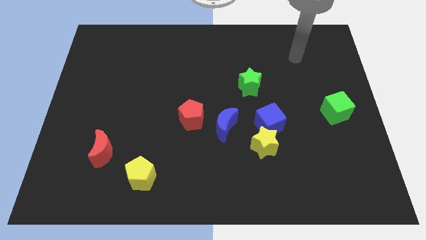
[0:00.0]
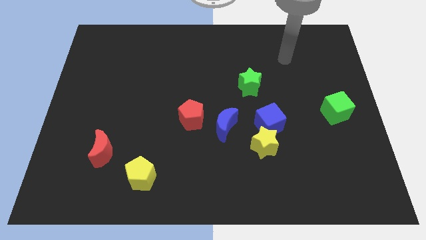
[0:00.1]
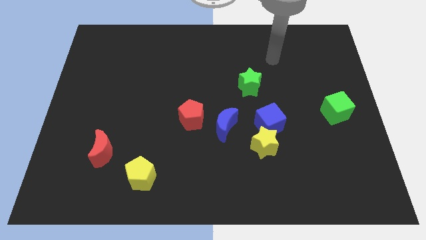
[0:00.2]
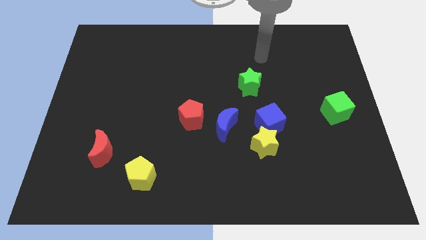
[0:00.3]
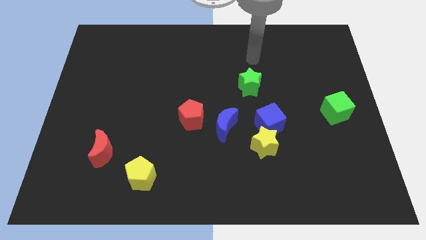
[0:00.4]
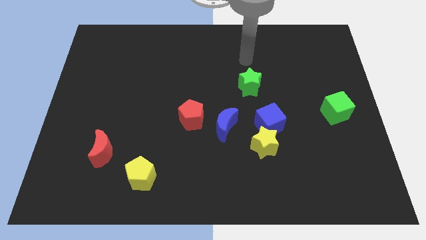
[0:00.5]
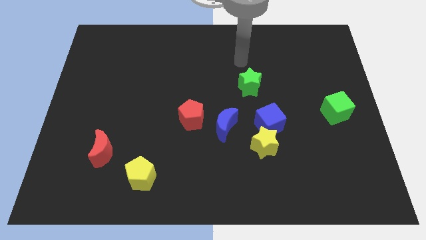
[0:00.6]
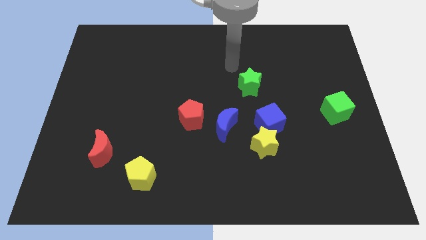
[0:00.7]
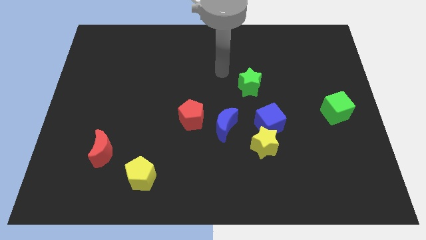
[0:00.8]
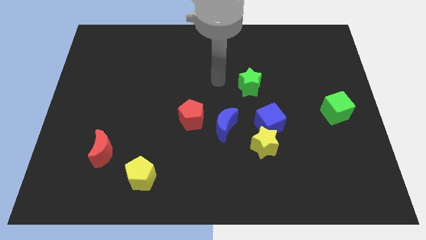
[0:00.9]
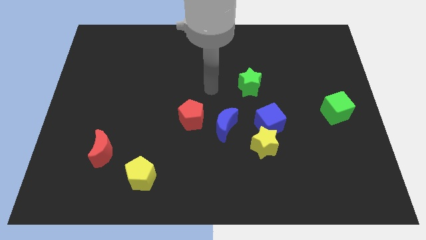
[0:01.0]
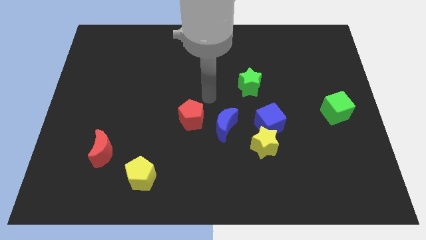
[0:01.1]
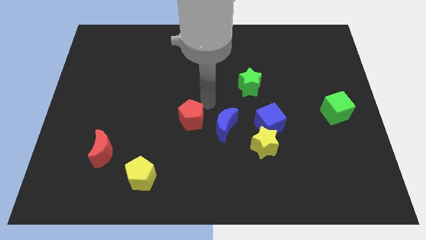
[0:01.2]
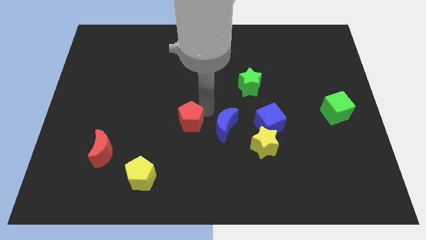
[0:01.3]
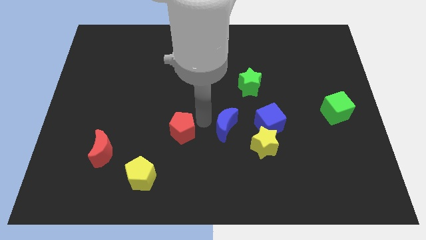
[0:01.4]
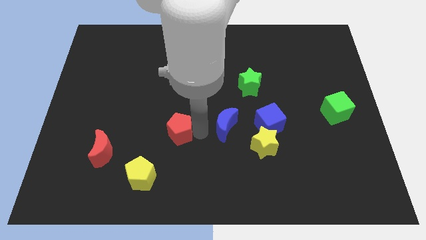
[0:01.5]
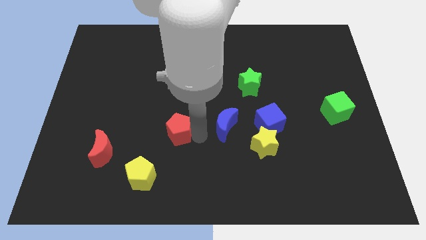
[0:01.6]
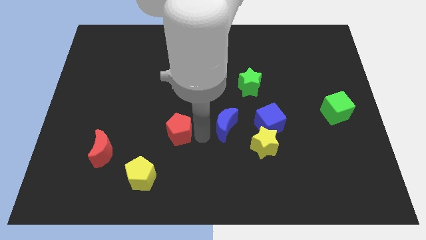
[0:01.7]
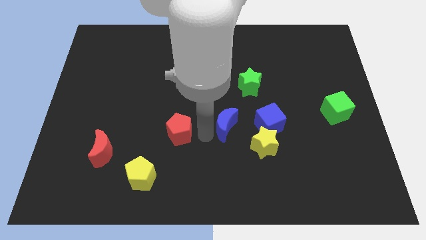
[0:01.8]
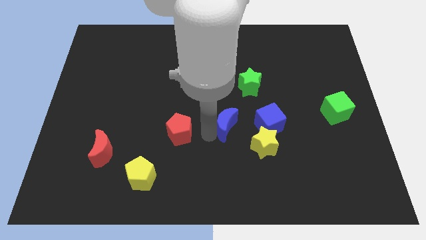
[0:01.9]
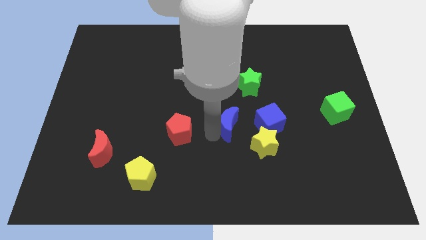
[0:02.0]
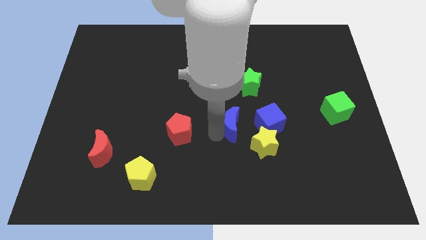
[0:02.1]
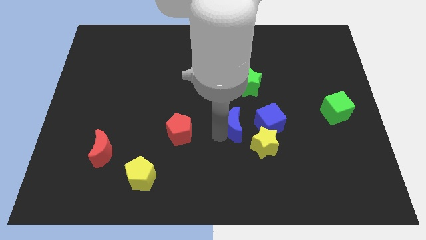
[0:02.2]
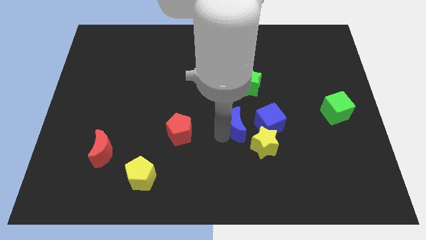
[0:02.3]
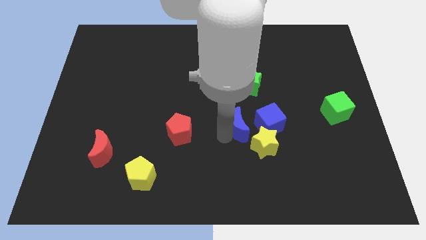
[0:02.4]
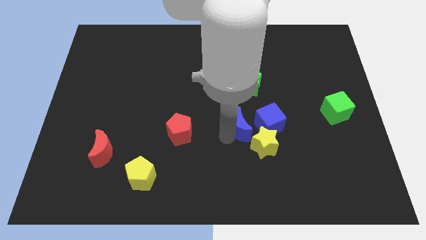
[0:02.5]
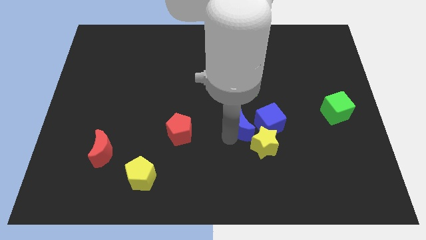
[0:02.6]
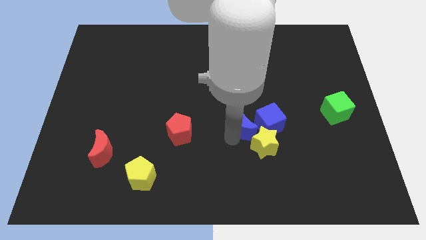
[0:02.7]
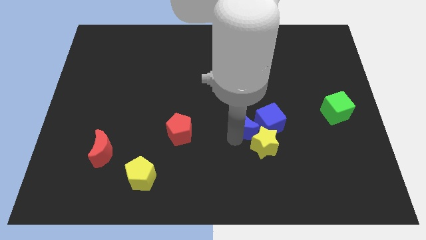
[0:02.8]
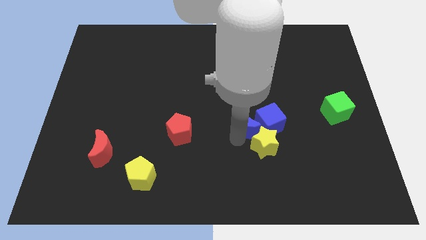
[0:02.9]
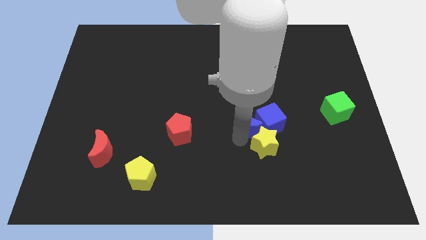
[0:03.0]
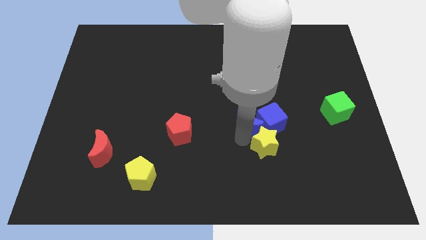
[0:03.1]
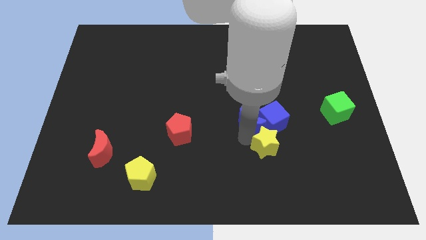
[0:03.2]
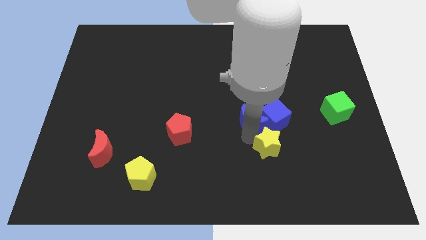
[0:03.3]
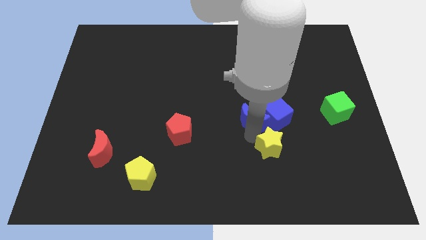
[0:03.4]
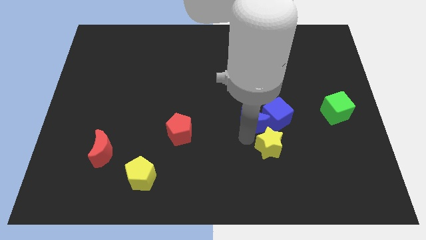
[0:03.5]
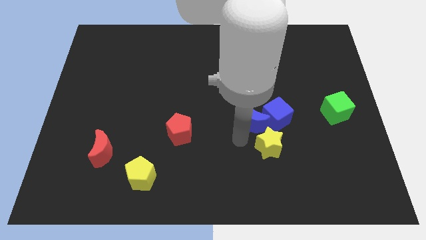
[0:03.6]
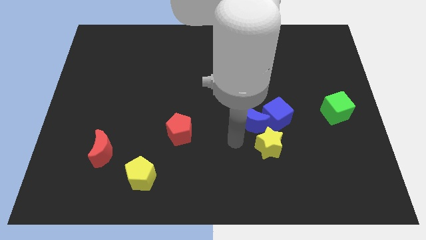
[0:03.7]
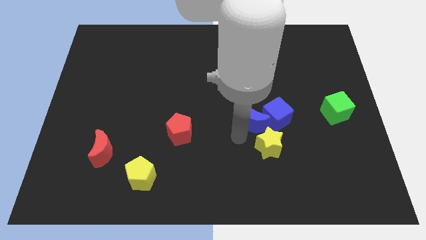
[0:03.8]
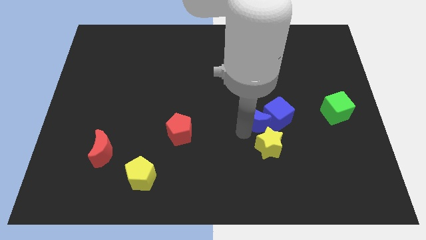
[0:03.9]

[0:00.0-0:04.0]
slide the blue moon a bit right

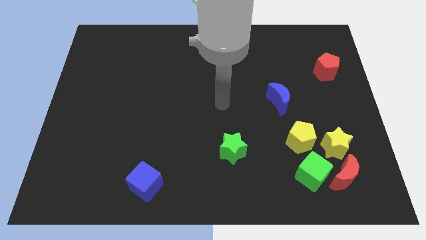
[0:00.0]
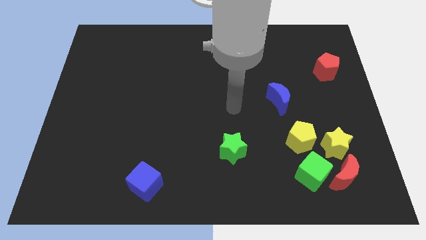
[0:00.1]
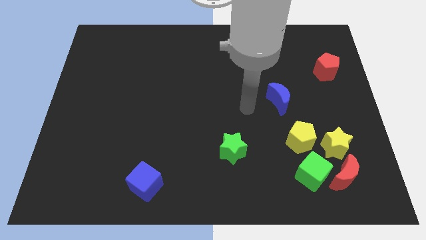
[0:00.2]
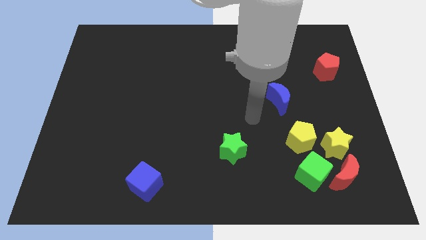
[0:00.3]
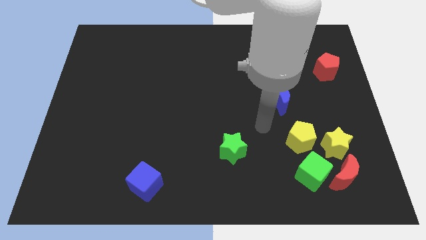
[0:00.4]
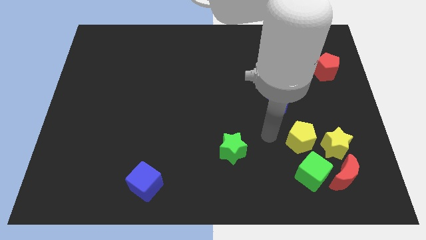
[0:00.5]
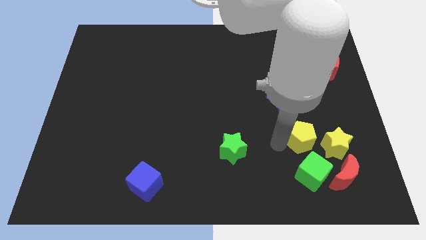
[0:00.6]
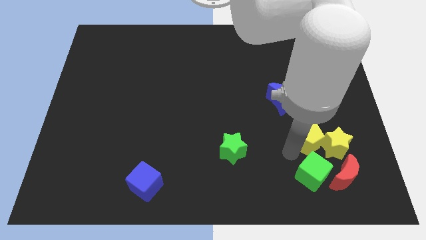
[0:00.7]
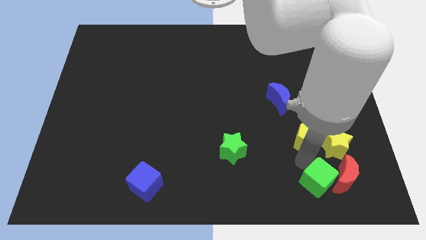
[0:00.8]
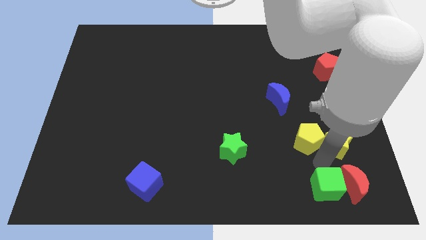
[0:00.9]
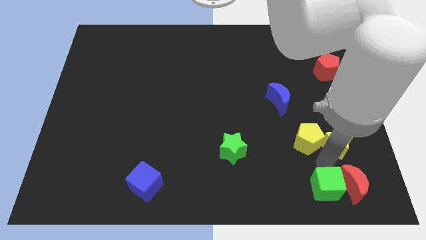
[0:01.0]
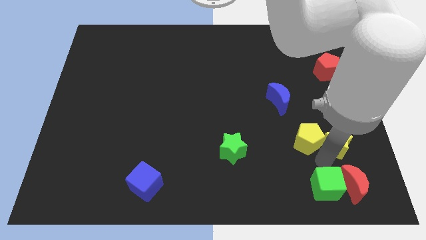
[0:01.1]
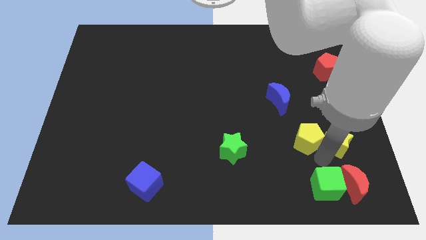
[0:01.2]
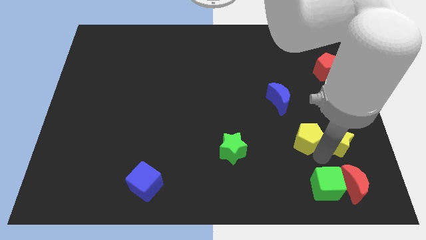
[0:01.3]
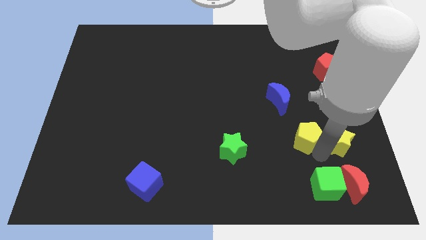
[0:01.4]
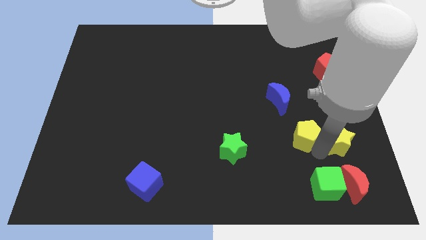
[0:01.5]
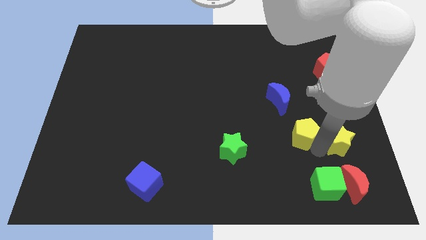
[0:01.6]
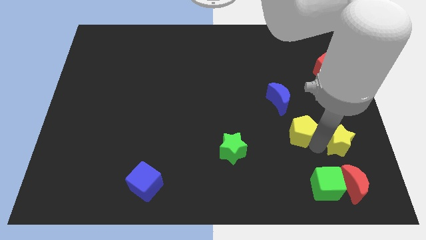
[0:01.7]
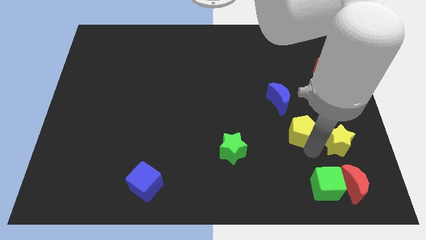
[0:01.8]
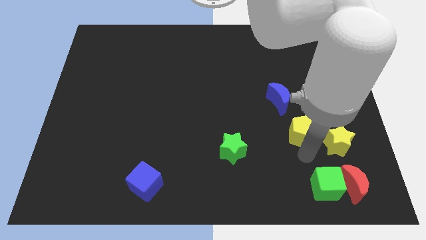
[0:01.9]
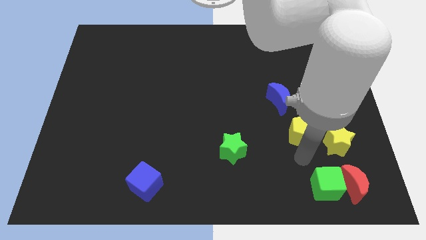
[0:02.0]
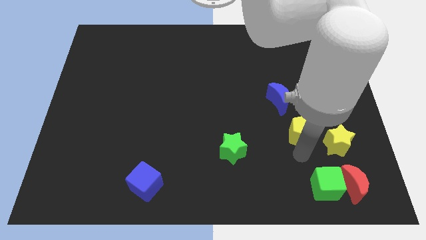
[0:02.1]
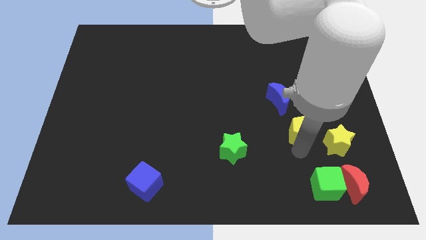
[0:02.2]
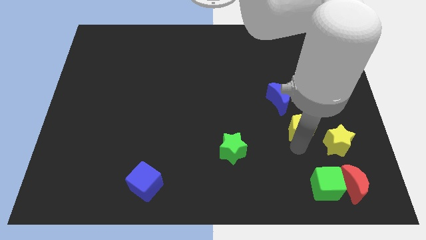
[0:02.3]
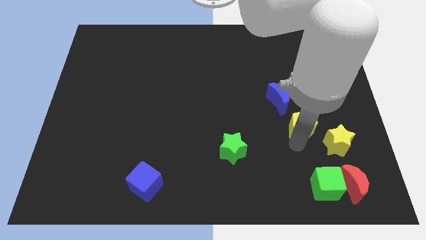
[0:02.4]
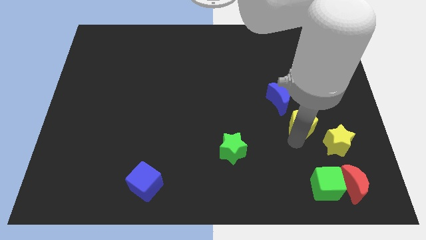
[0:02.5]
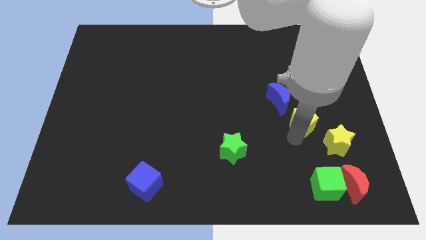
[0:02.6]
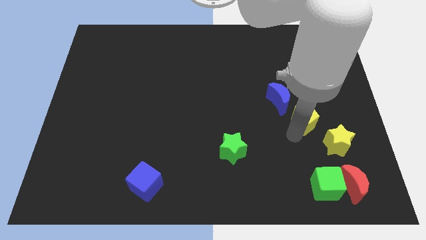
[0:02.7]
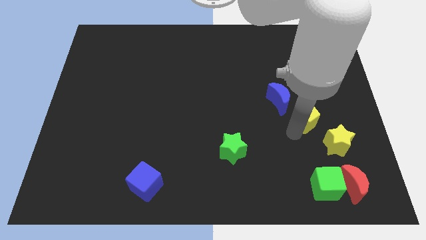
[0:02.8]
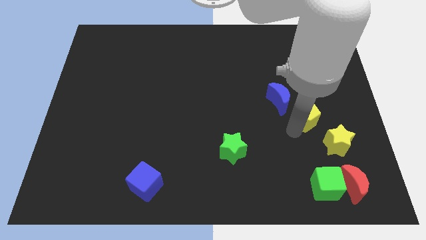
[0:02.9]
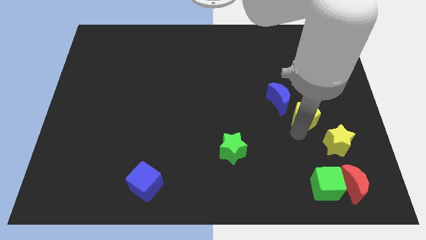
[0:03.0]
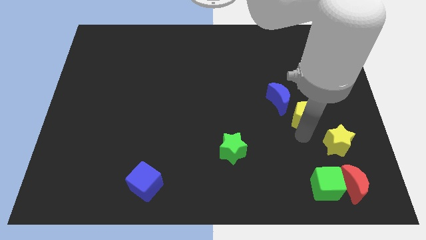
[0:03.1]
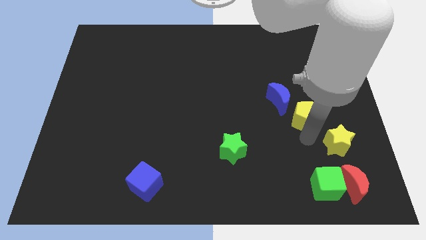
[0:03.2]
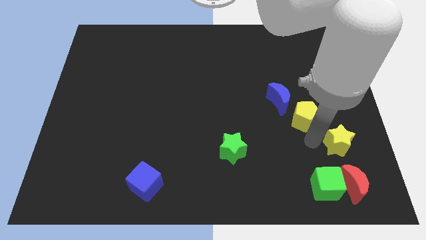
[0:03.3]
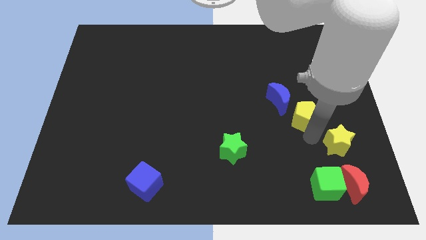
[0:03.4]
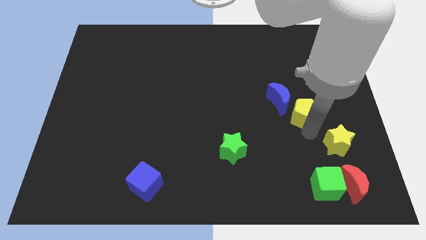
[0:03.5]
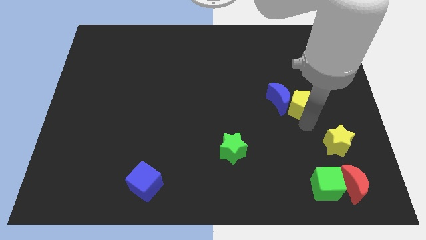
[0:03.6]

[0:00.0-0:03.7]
move the yellow pentagon upwards a little

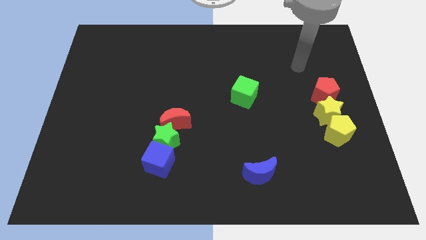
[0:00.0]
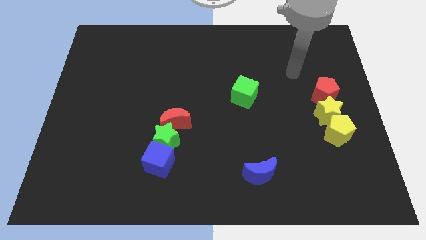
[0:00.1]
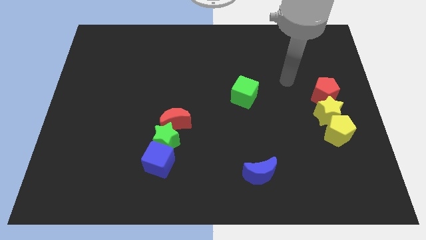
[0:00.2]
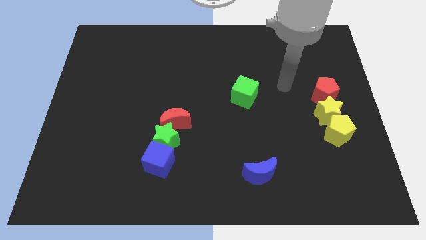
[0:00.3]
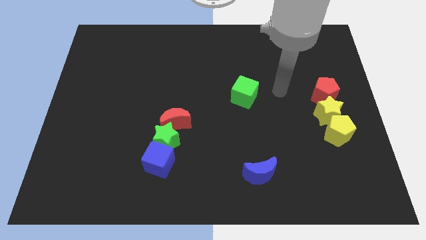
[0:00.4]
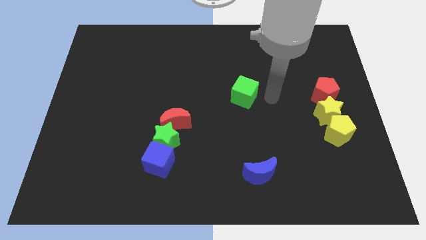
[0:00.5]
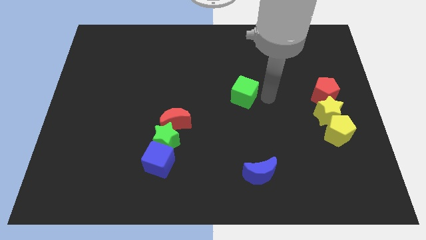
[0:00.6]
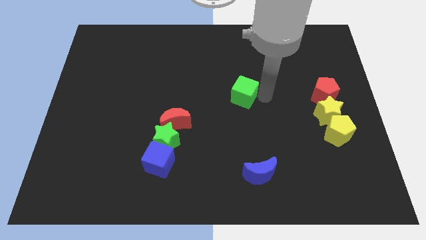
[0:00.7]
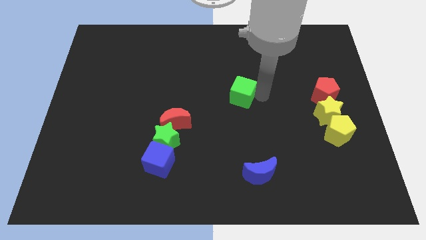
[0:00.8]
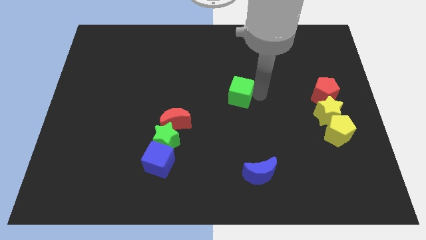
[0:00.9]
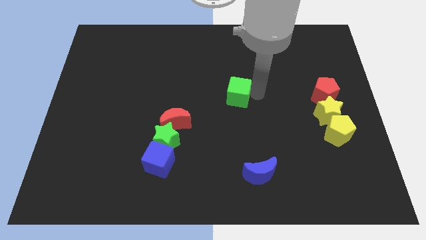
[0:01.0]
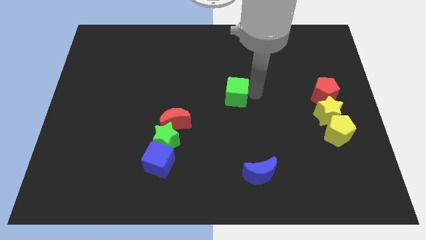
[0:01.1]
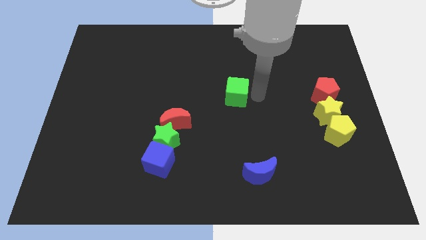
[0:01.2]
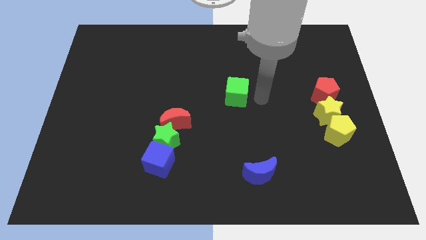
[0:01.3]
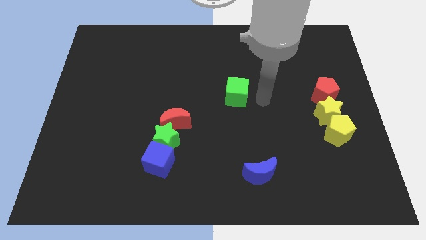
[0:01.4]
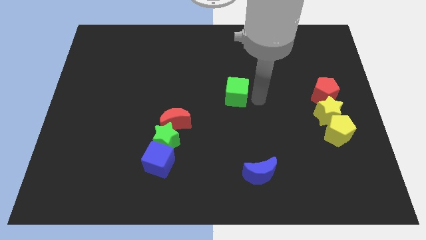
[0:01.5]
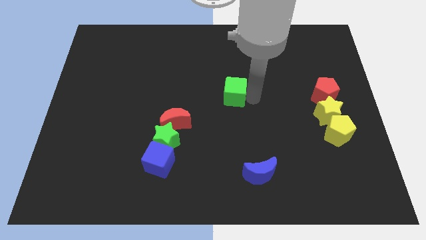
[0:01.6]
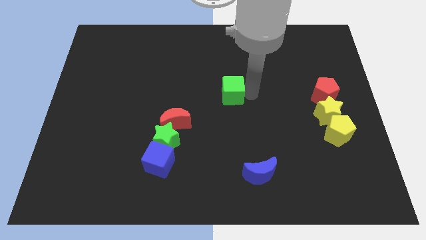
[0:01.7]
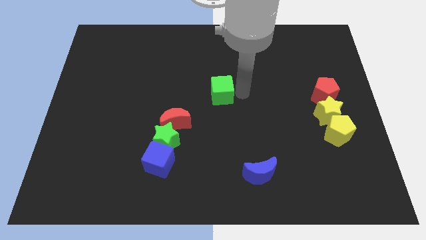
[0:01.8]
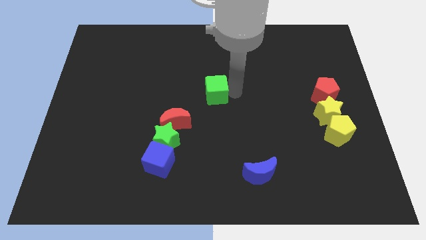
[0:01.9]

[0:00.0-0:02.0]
slightly move the green cube to the left
